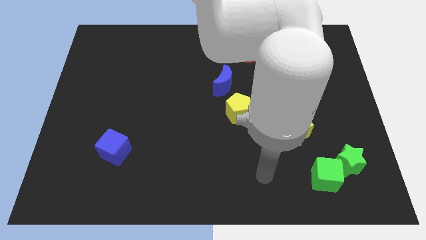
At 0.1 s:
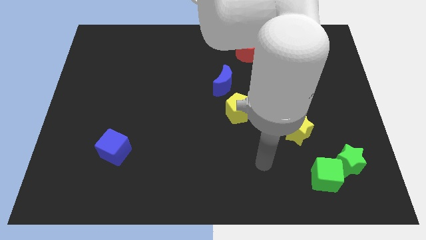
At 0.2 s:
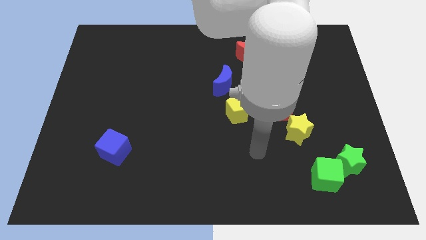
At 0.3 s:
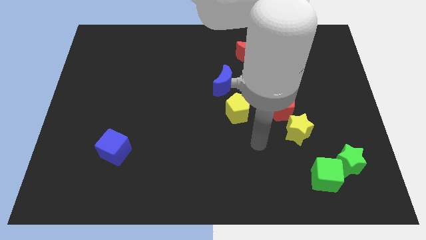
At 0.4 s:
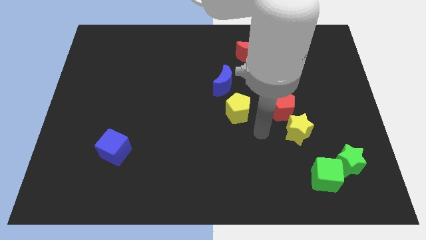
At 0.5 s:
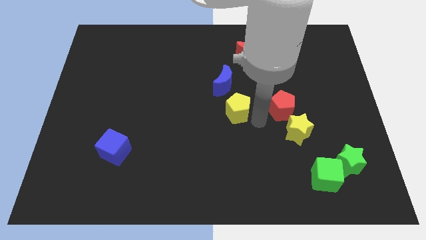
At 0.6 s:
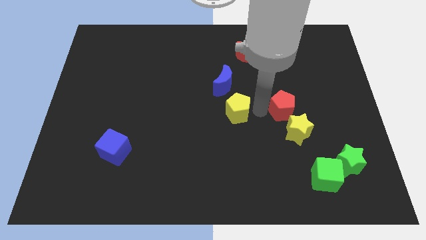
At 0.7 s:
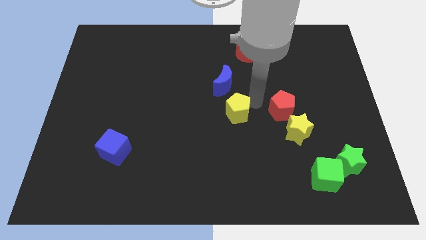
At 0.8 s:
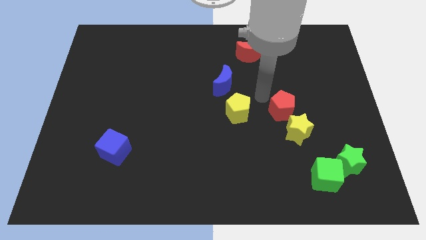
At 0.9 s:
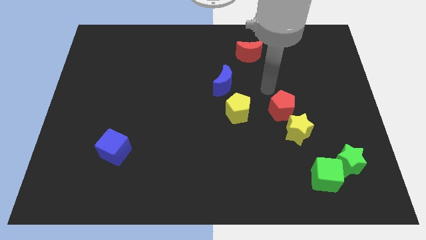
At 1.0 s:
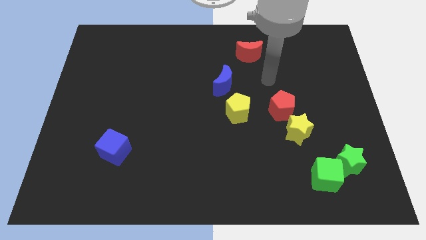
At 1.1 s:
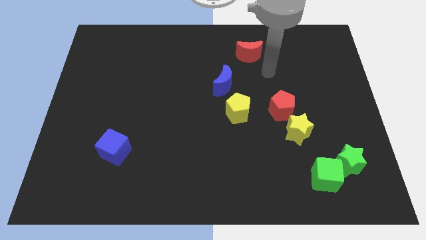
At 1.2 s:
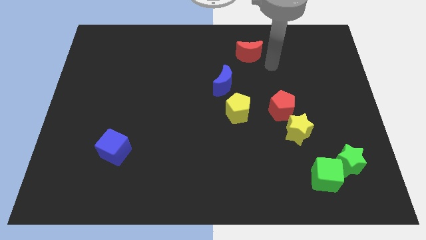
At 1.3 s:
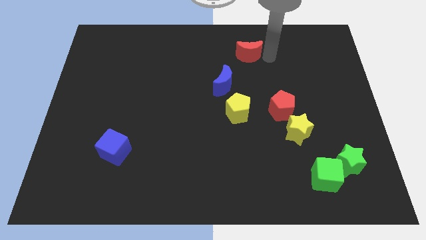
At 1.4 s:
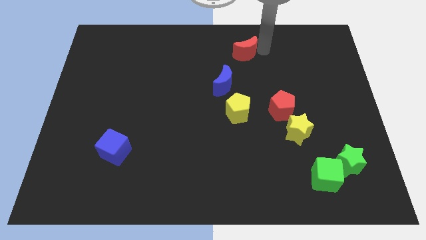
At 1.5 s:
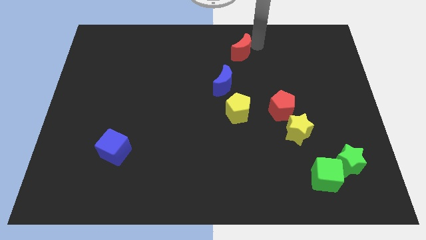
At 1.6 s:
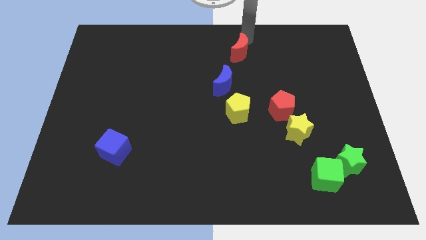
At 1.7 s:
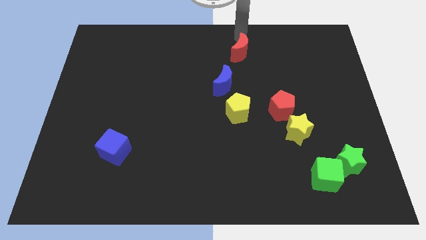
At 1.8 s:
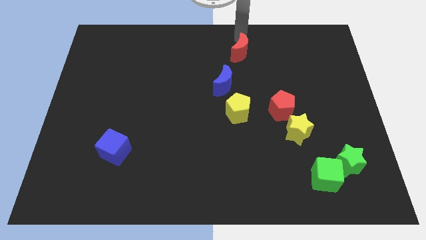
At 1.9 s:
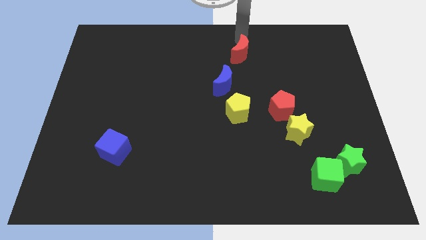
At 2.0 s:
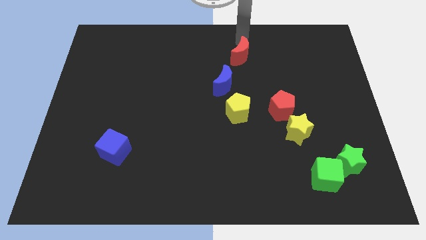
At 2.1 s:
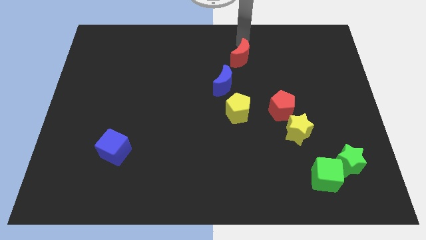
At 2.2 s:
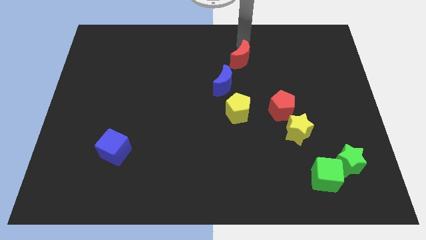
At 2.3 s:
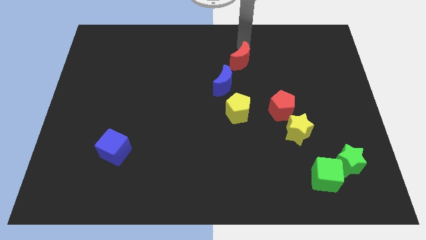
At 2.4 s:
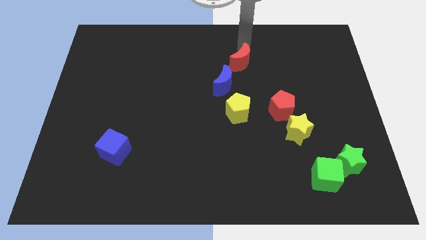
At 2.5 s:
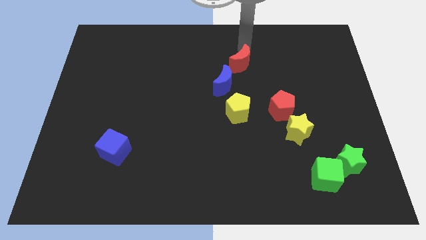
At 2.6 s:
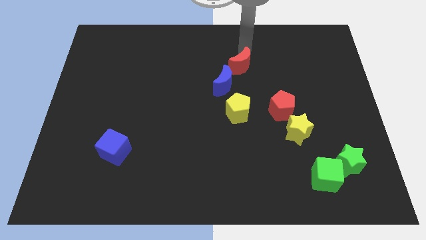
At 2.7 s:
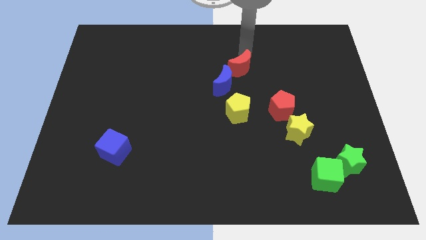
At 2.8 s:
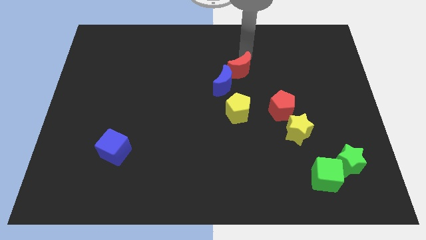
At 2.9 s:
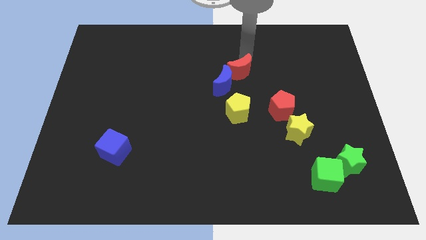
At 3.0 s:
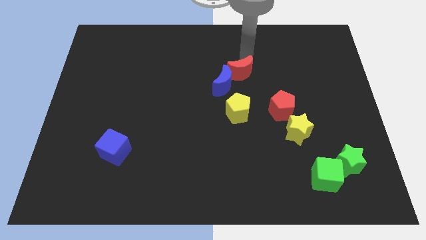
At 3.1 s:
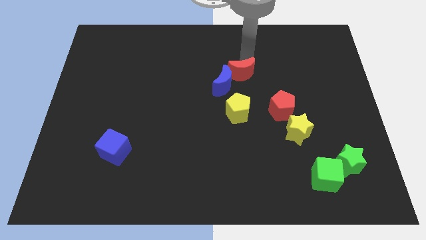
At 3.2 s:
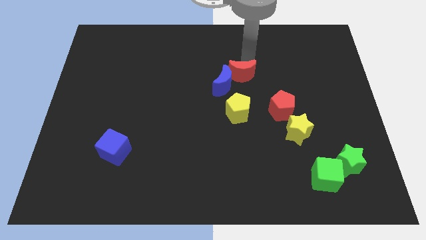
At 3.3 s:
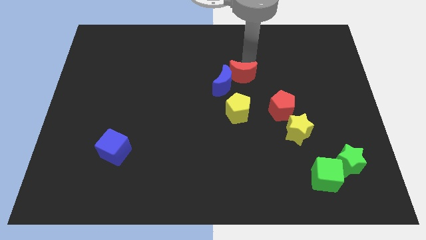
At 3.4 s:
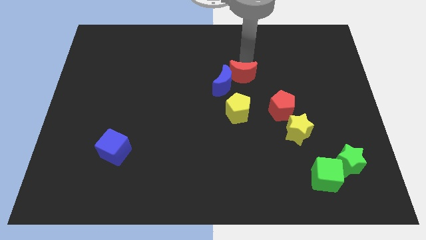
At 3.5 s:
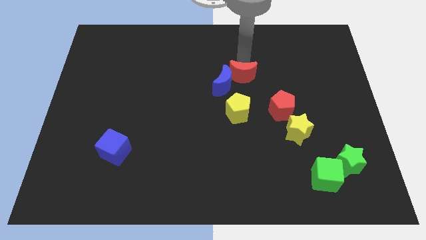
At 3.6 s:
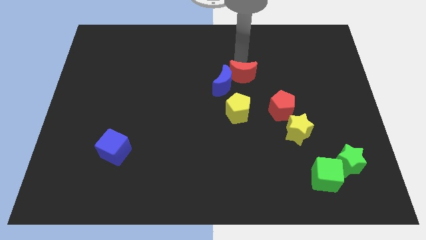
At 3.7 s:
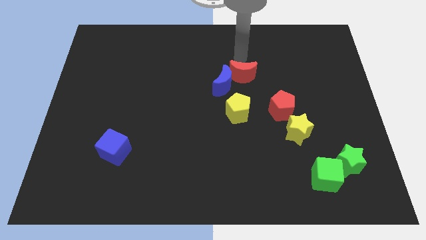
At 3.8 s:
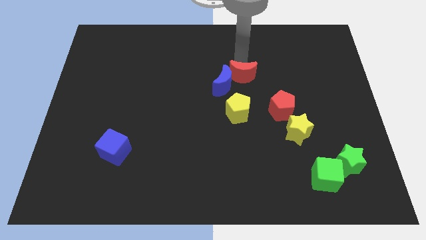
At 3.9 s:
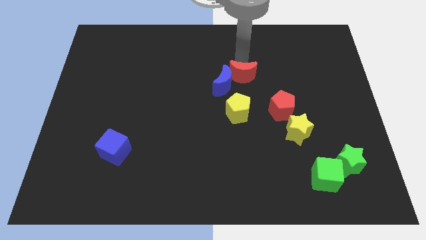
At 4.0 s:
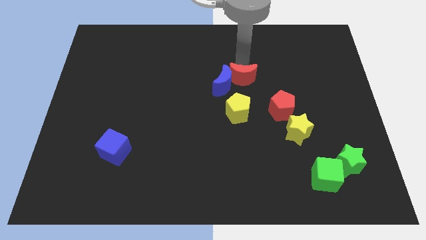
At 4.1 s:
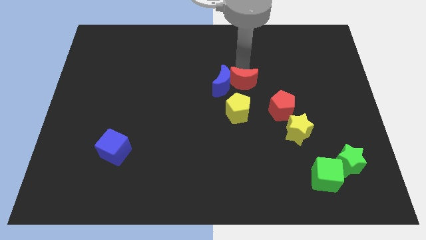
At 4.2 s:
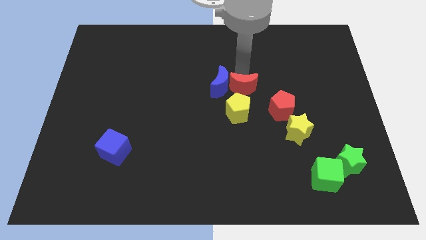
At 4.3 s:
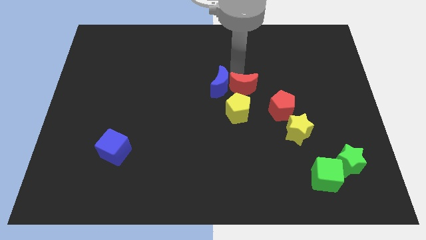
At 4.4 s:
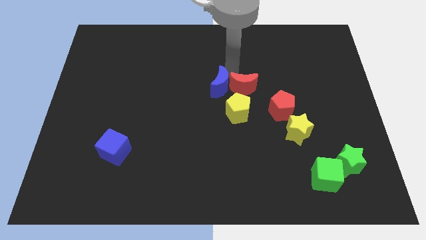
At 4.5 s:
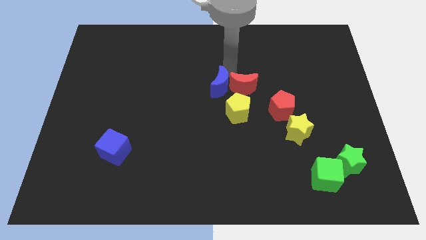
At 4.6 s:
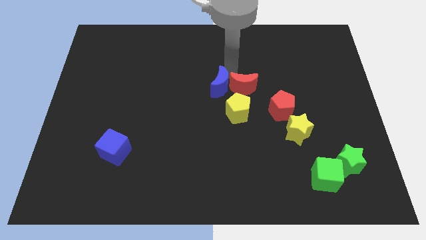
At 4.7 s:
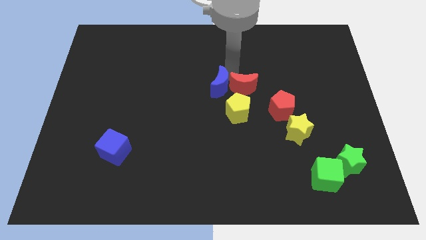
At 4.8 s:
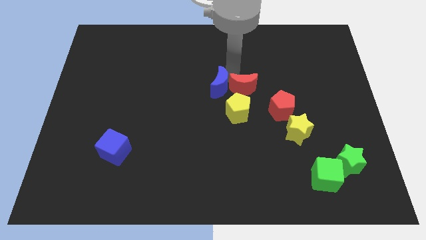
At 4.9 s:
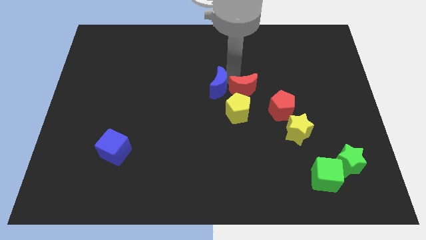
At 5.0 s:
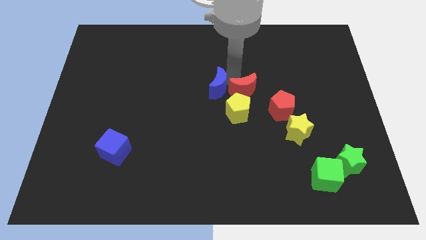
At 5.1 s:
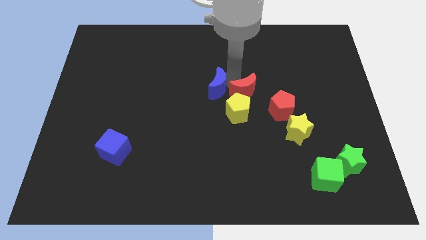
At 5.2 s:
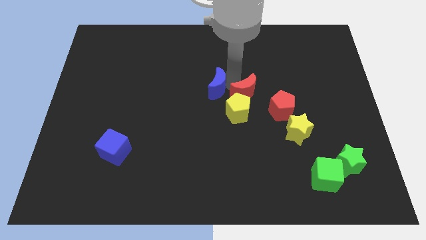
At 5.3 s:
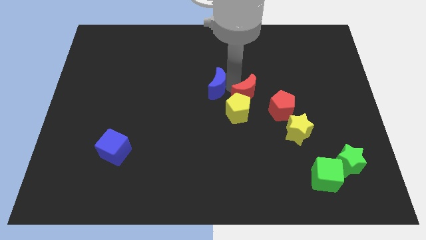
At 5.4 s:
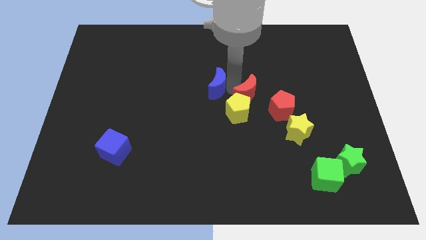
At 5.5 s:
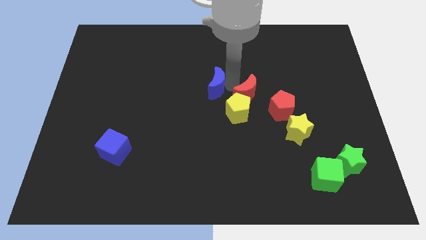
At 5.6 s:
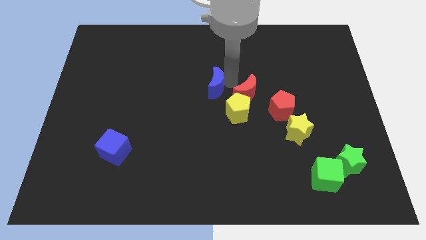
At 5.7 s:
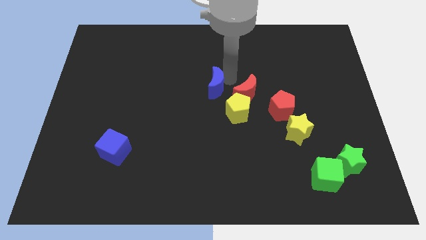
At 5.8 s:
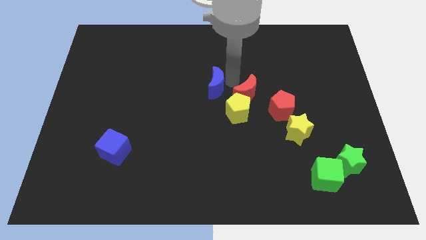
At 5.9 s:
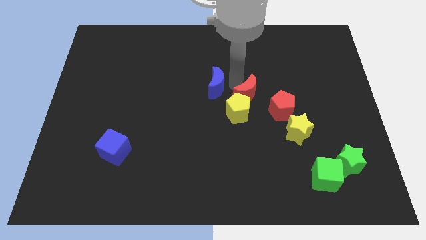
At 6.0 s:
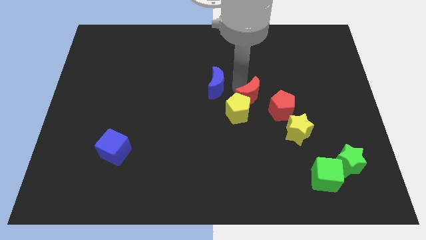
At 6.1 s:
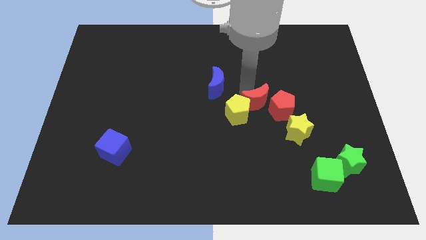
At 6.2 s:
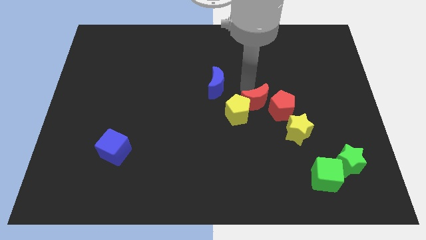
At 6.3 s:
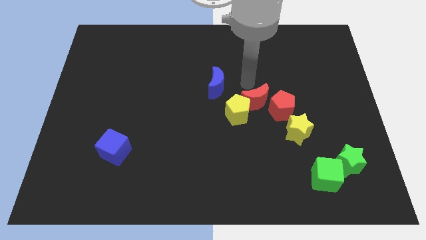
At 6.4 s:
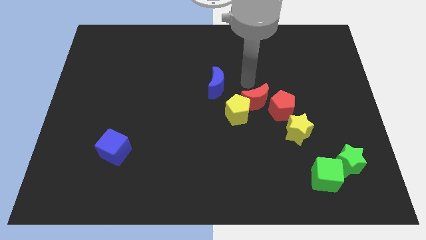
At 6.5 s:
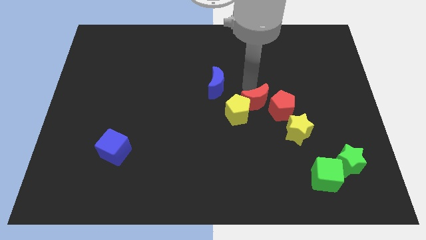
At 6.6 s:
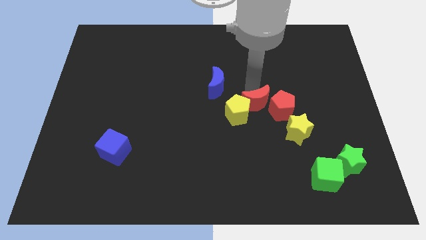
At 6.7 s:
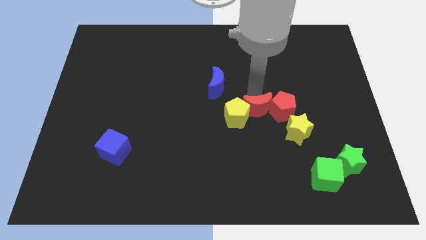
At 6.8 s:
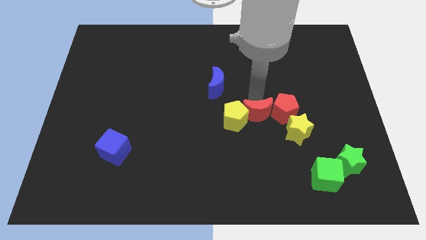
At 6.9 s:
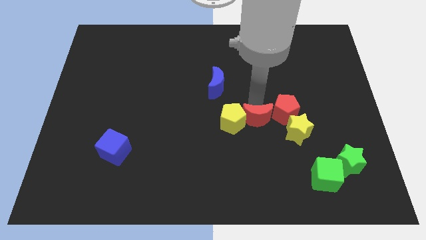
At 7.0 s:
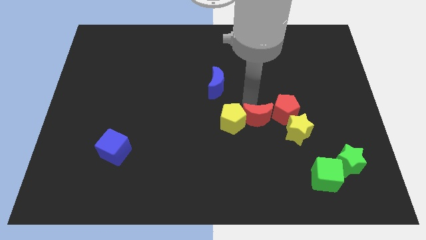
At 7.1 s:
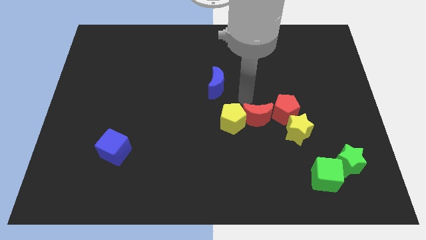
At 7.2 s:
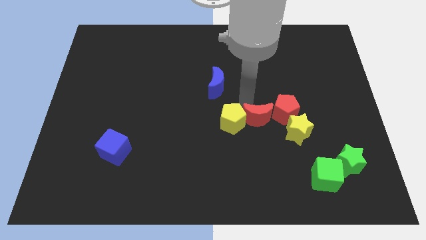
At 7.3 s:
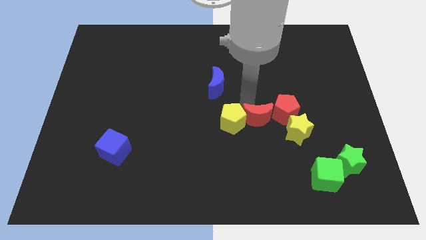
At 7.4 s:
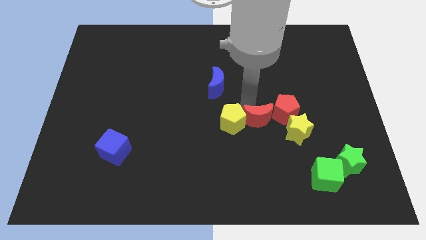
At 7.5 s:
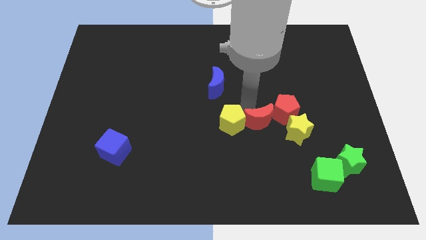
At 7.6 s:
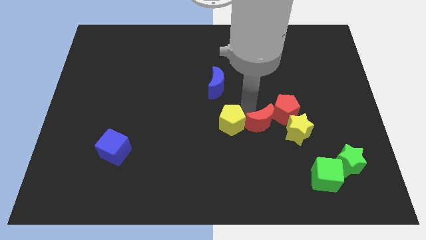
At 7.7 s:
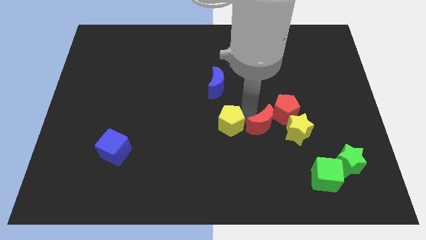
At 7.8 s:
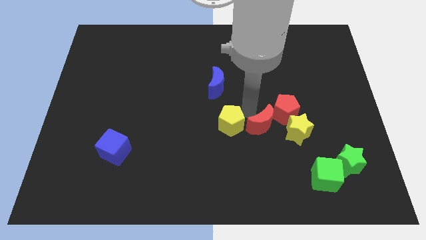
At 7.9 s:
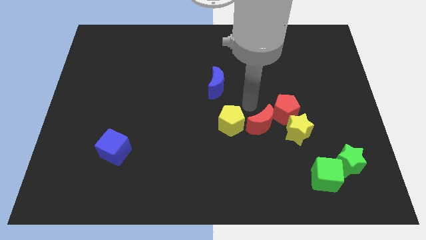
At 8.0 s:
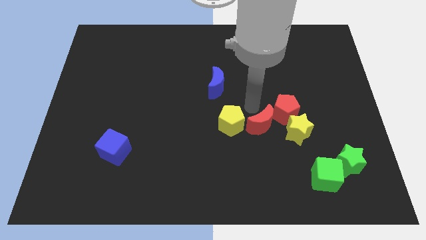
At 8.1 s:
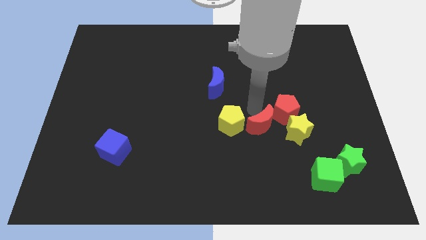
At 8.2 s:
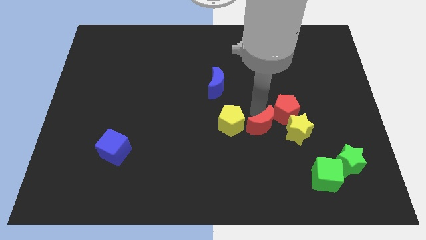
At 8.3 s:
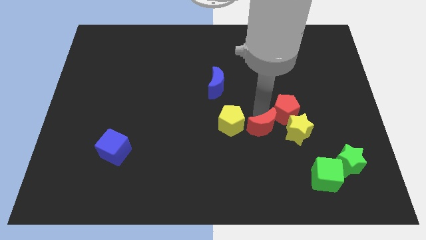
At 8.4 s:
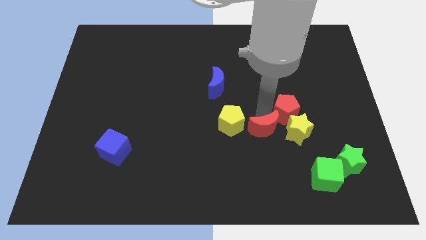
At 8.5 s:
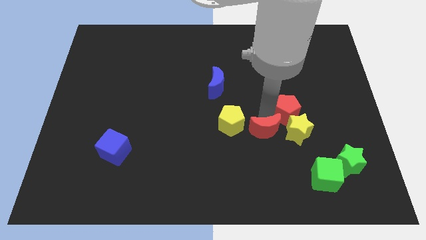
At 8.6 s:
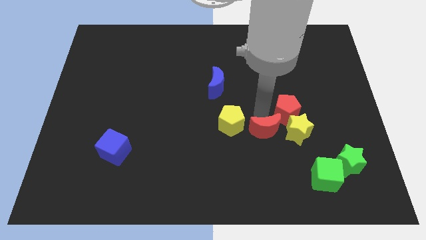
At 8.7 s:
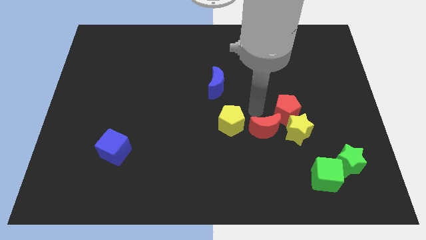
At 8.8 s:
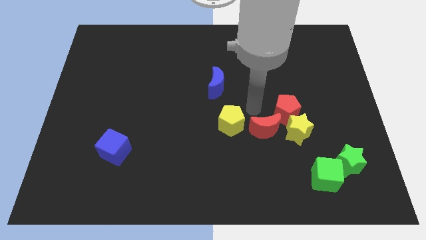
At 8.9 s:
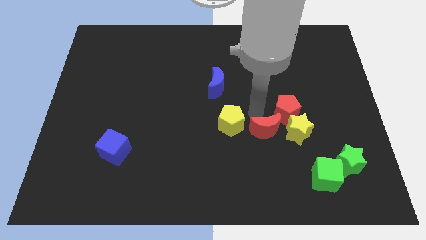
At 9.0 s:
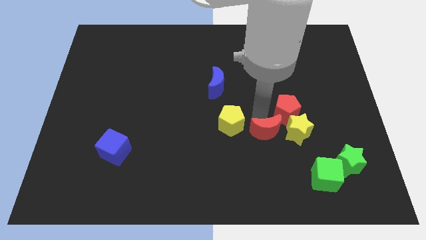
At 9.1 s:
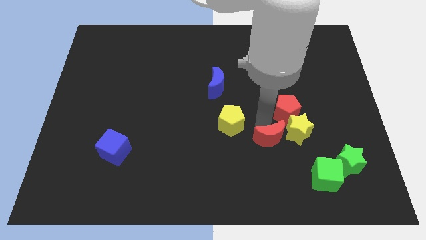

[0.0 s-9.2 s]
push the red moon diagonally down and to the left of the yellow star
